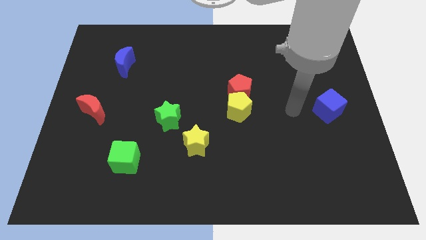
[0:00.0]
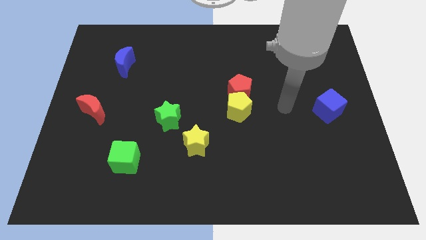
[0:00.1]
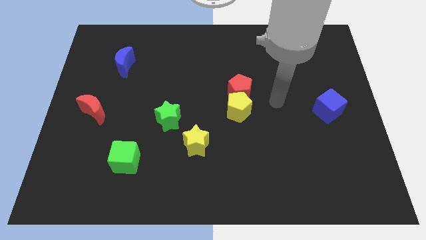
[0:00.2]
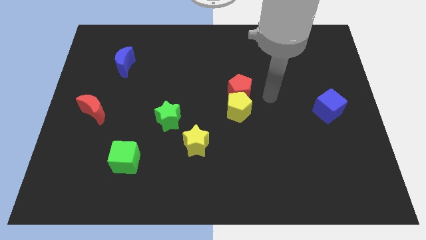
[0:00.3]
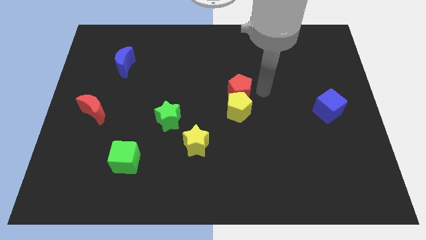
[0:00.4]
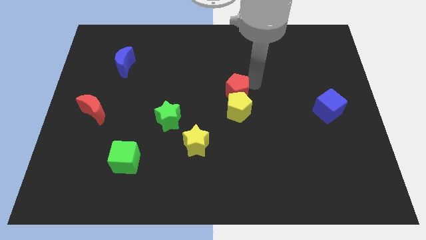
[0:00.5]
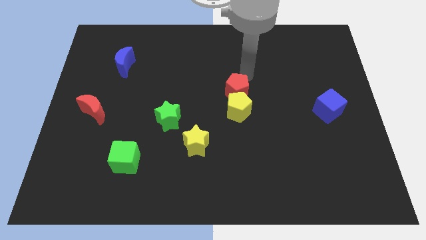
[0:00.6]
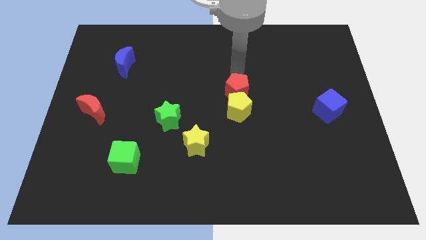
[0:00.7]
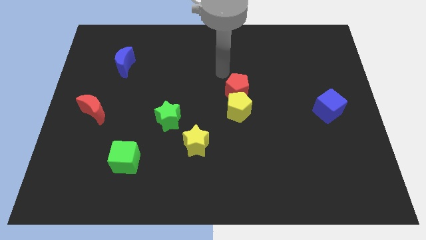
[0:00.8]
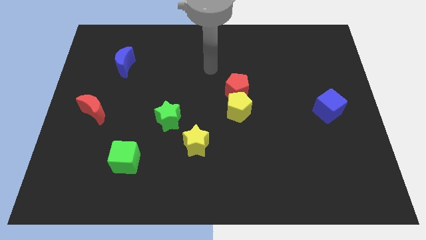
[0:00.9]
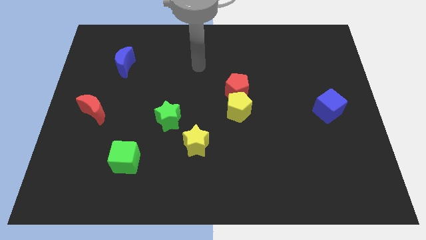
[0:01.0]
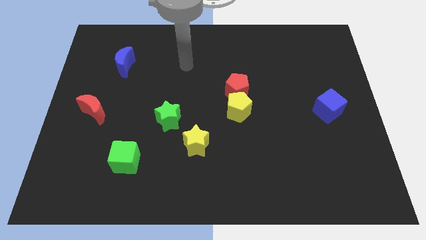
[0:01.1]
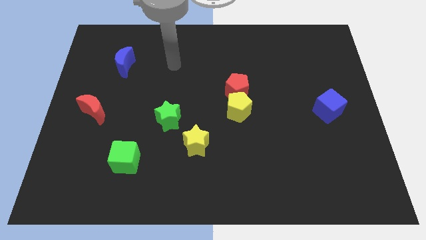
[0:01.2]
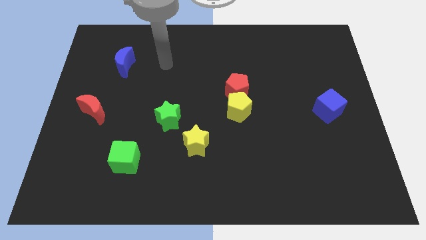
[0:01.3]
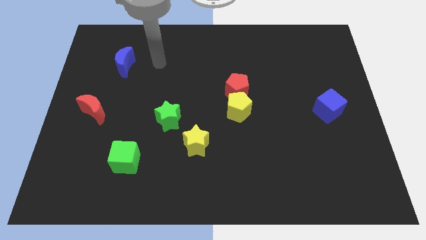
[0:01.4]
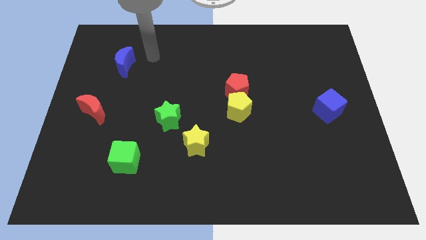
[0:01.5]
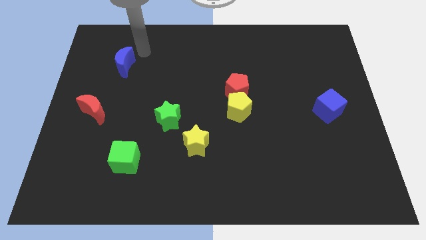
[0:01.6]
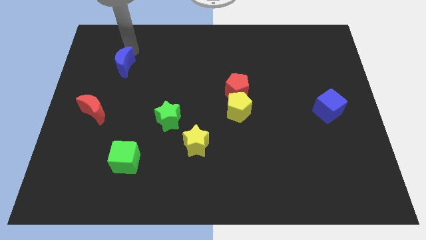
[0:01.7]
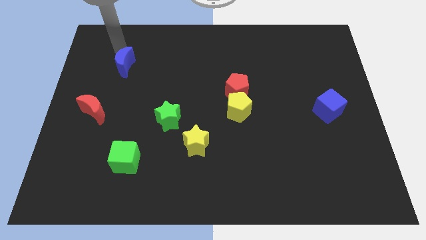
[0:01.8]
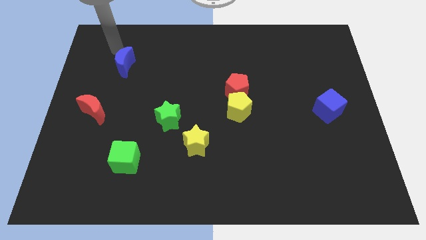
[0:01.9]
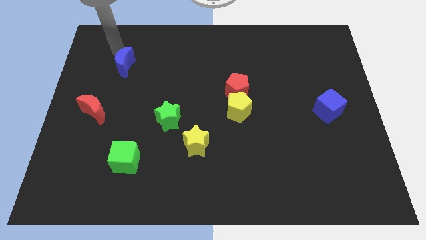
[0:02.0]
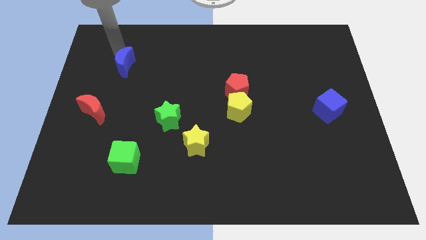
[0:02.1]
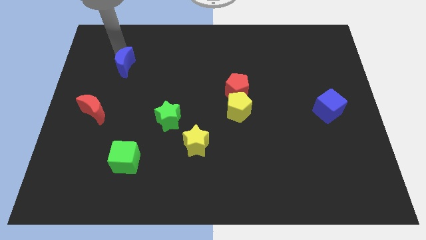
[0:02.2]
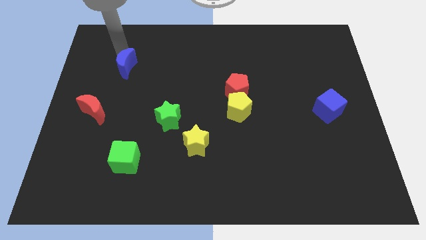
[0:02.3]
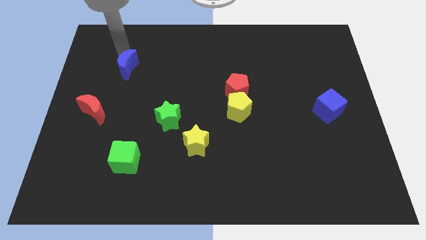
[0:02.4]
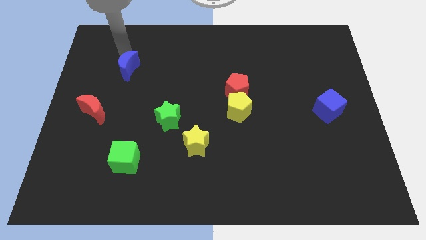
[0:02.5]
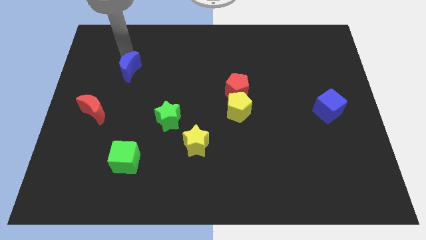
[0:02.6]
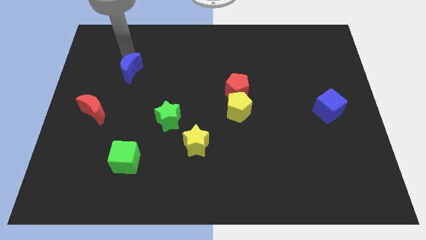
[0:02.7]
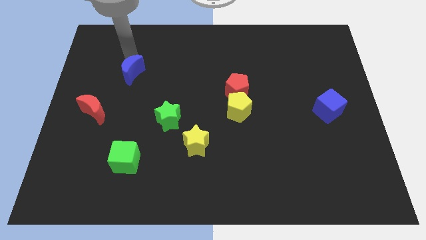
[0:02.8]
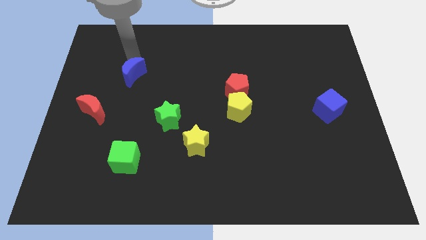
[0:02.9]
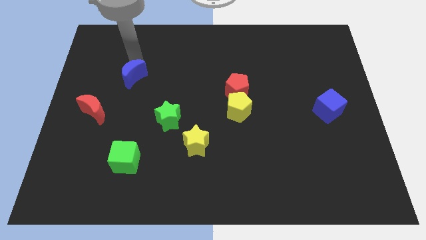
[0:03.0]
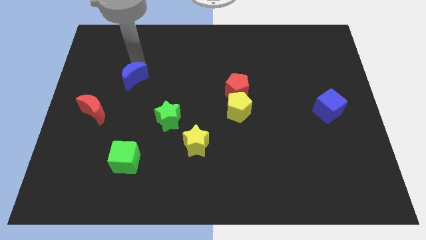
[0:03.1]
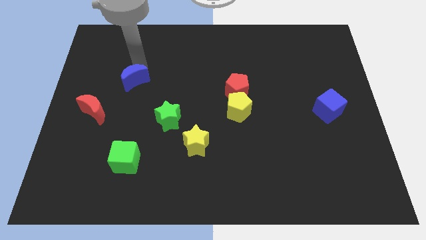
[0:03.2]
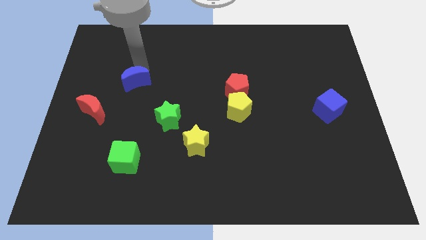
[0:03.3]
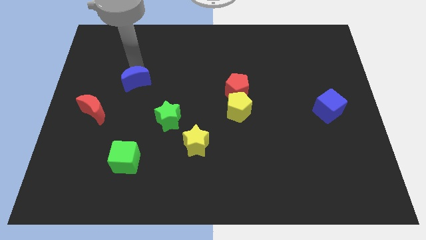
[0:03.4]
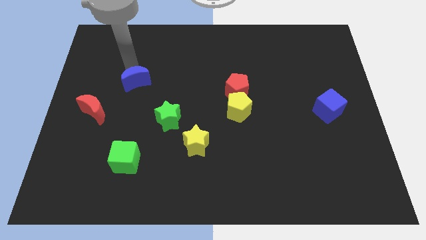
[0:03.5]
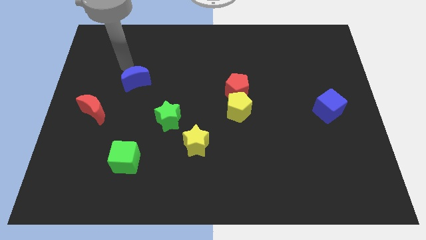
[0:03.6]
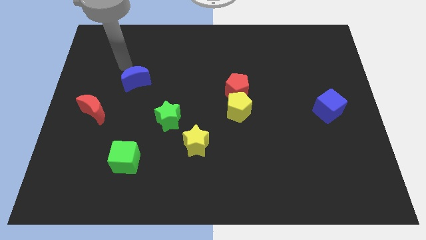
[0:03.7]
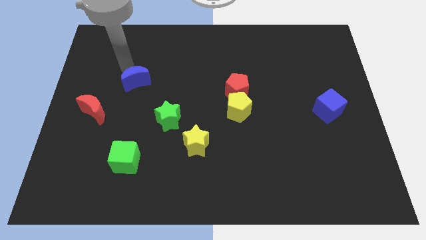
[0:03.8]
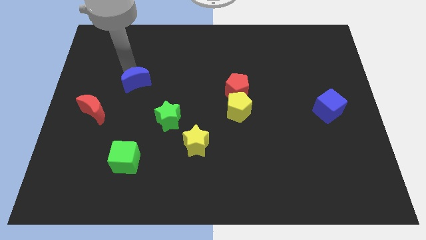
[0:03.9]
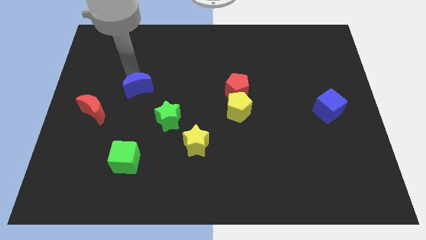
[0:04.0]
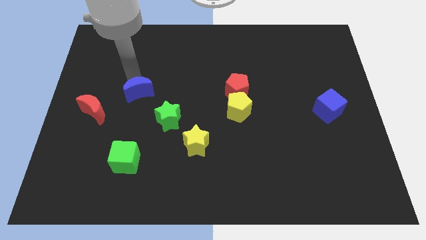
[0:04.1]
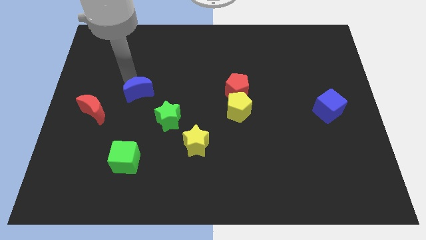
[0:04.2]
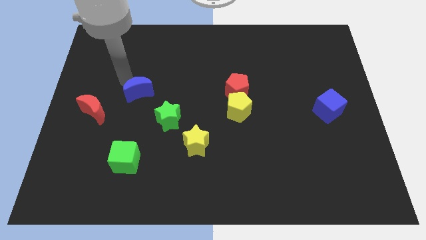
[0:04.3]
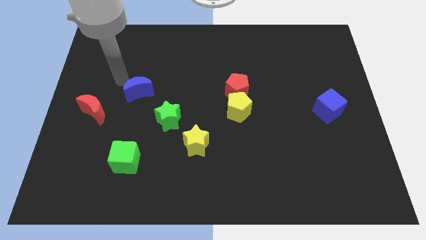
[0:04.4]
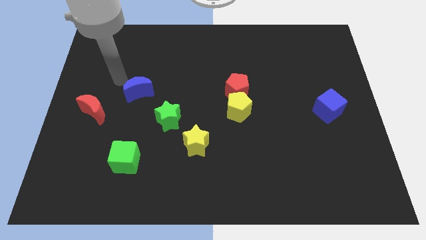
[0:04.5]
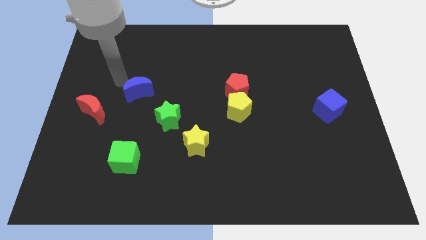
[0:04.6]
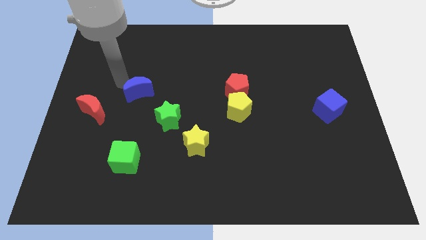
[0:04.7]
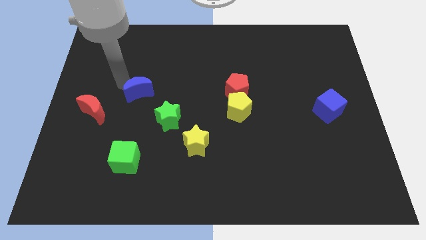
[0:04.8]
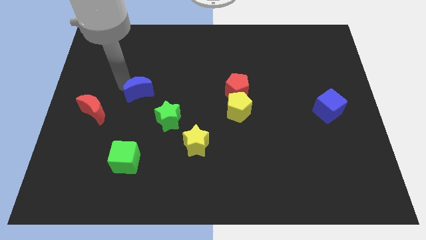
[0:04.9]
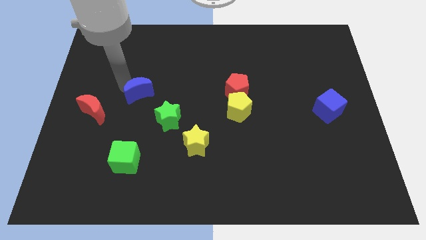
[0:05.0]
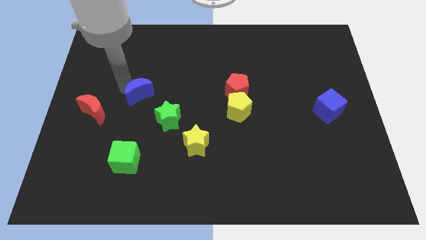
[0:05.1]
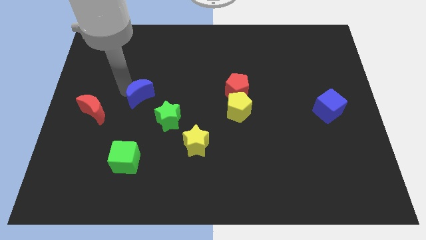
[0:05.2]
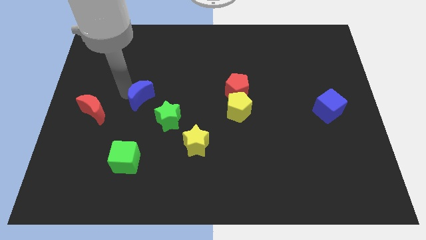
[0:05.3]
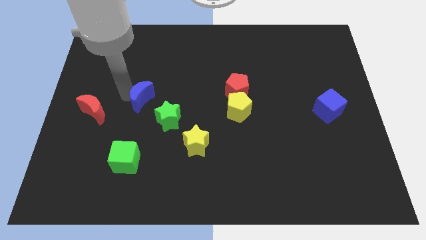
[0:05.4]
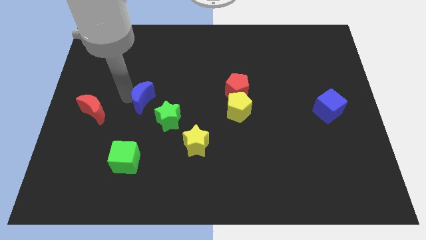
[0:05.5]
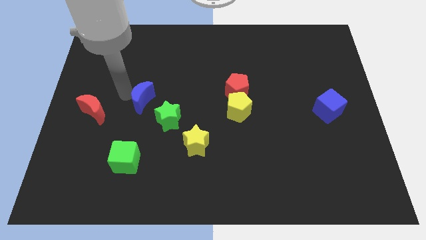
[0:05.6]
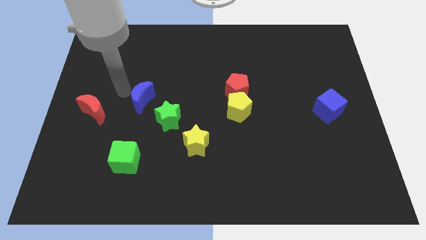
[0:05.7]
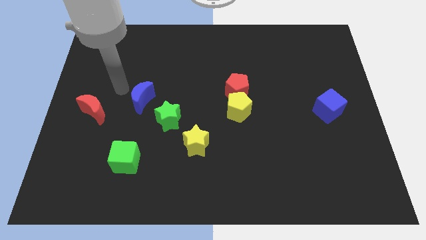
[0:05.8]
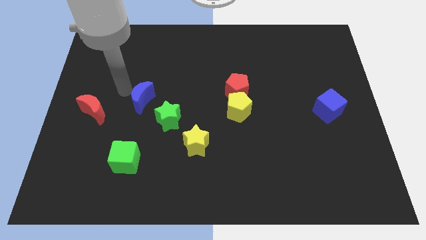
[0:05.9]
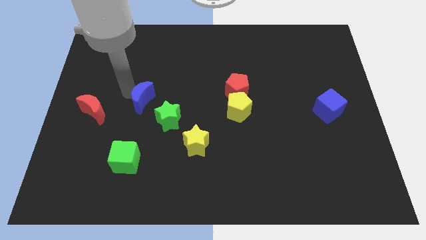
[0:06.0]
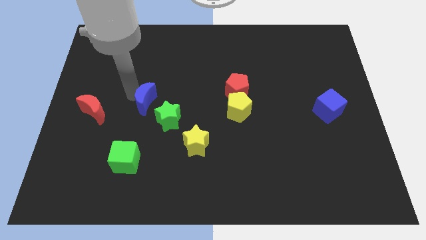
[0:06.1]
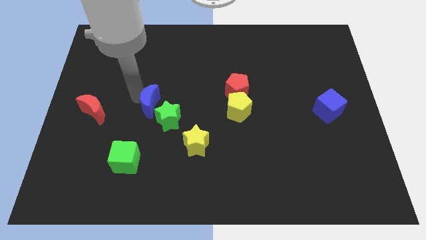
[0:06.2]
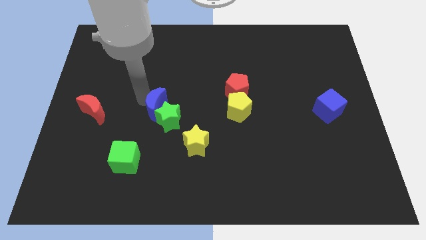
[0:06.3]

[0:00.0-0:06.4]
move the blue moon close to the green star
